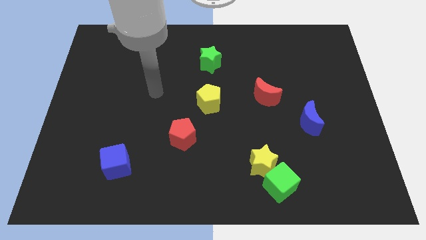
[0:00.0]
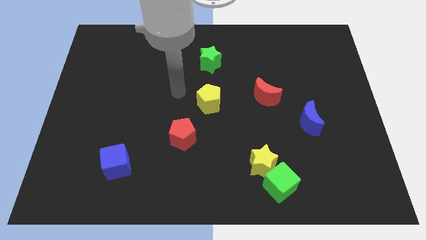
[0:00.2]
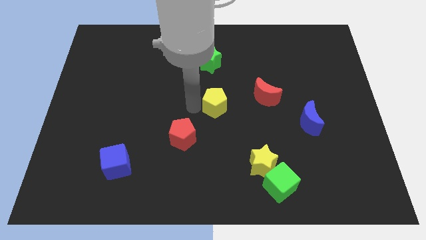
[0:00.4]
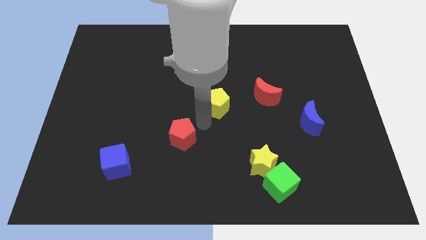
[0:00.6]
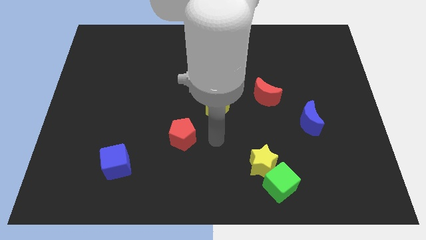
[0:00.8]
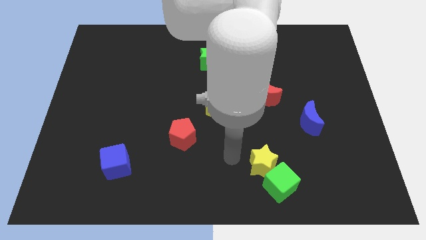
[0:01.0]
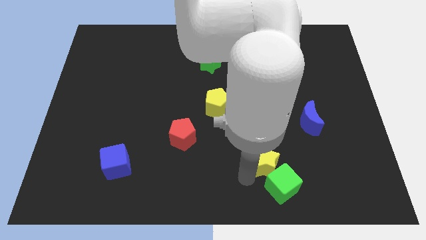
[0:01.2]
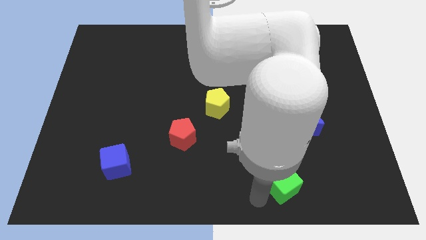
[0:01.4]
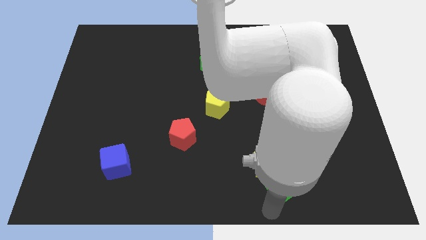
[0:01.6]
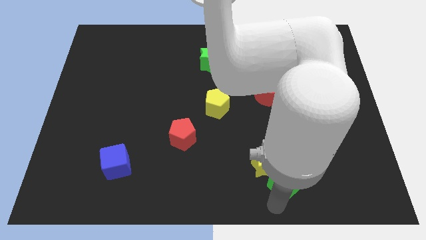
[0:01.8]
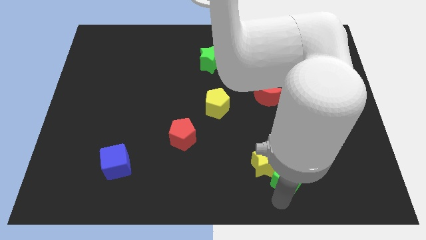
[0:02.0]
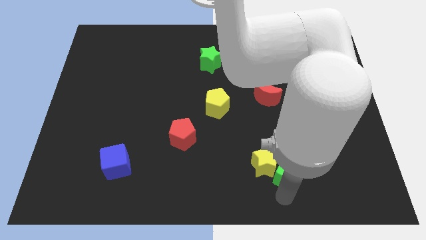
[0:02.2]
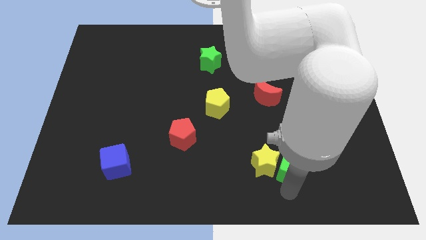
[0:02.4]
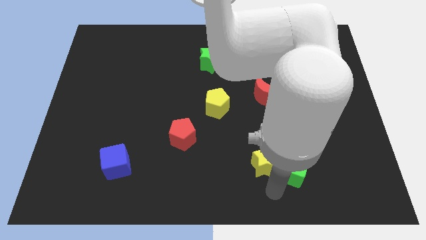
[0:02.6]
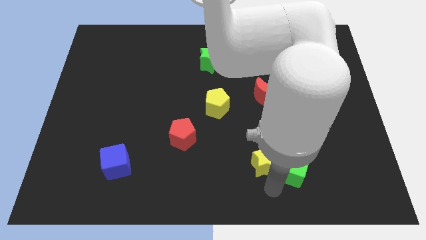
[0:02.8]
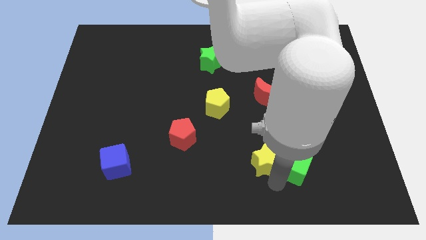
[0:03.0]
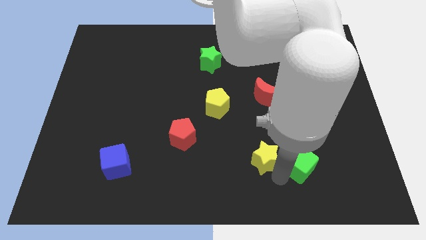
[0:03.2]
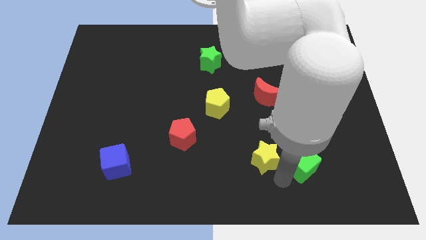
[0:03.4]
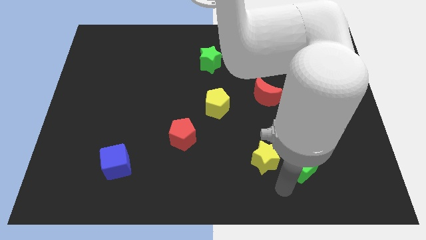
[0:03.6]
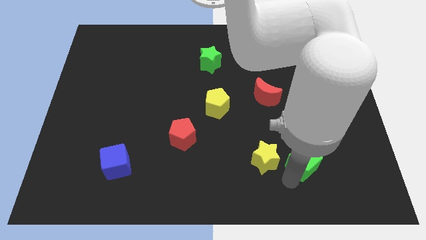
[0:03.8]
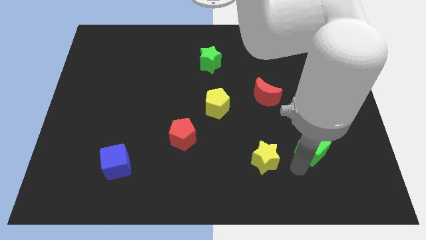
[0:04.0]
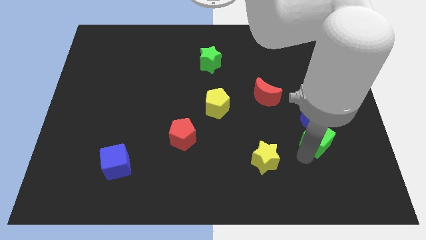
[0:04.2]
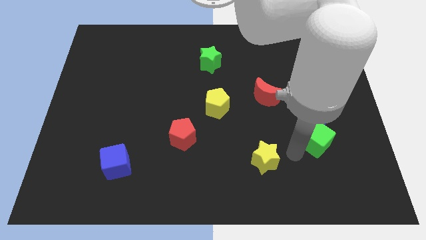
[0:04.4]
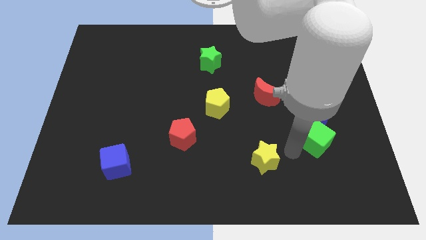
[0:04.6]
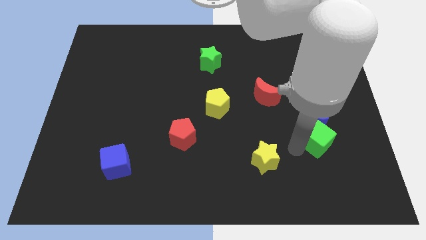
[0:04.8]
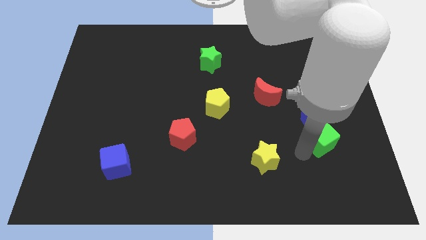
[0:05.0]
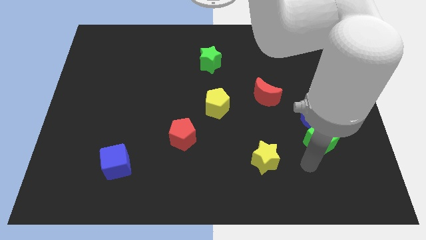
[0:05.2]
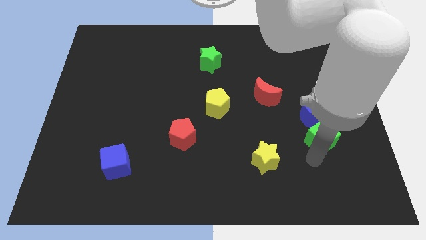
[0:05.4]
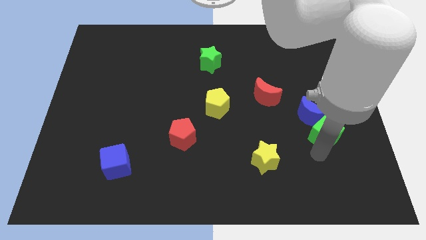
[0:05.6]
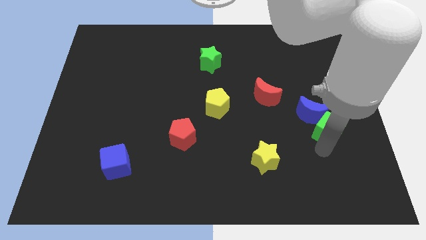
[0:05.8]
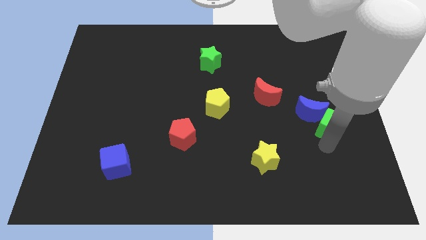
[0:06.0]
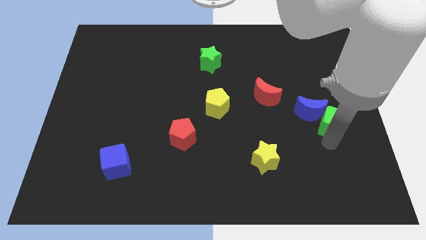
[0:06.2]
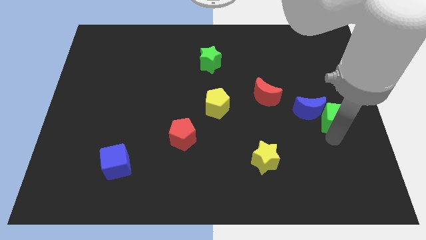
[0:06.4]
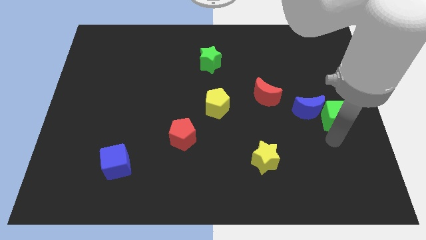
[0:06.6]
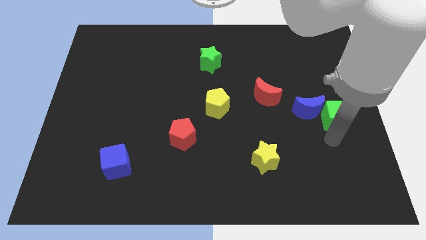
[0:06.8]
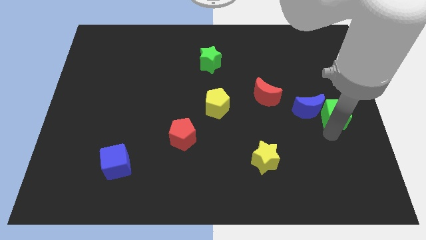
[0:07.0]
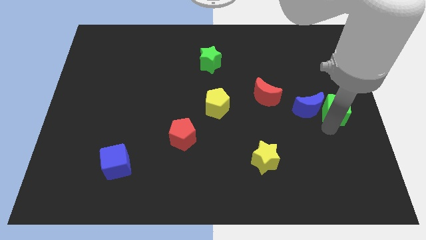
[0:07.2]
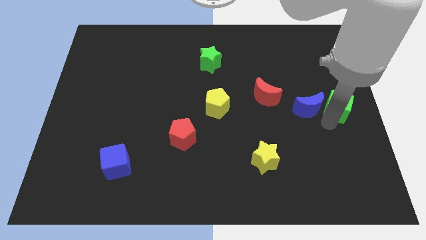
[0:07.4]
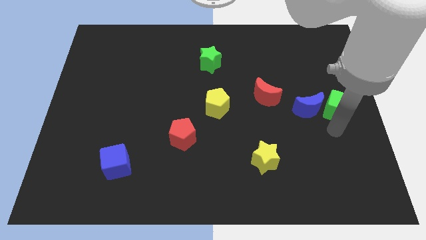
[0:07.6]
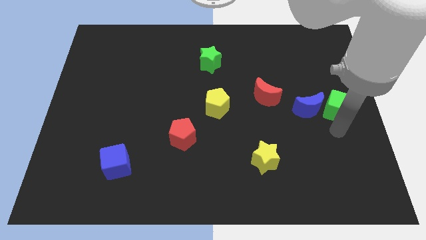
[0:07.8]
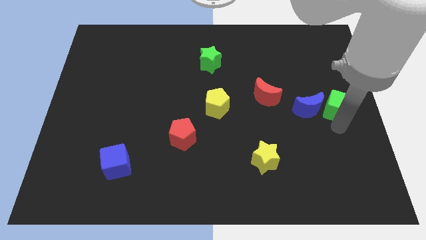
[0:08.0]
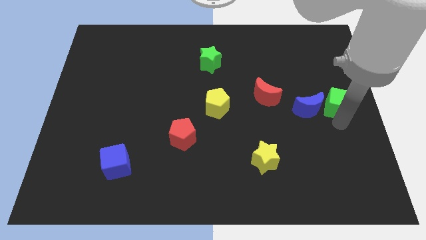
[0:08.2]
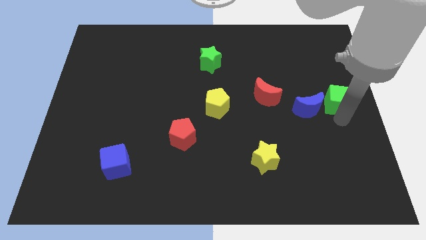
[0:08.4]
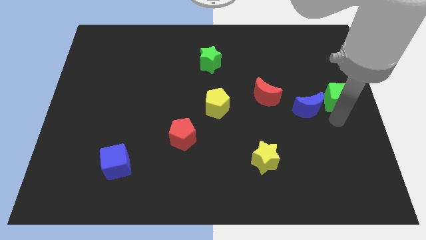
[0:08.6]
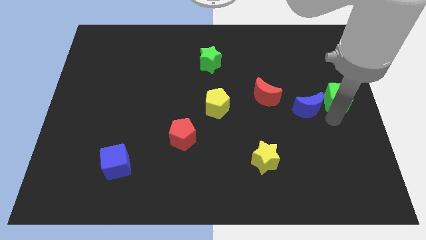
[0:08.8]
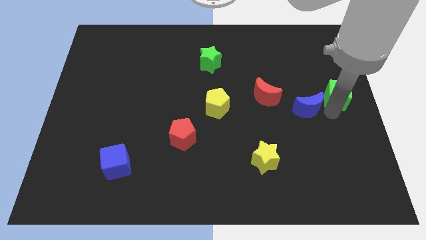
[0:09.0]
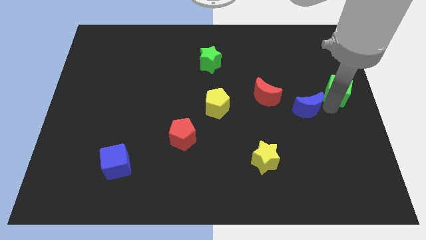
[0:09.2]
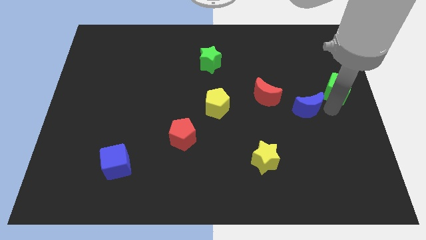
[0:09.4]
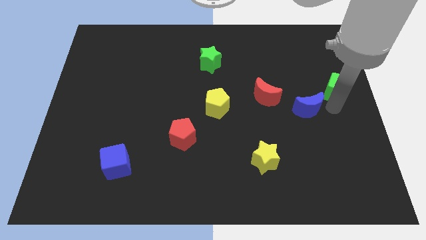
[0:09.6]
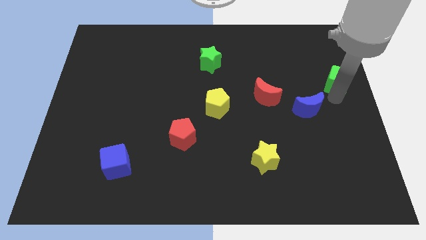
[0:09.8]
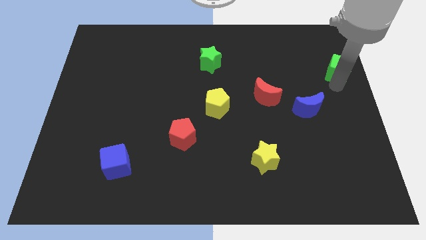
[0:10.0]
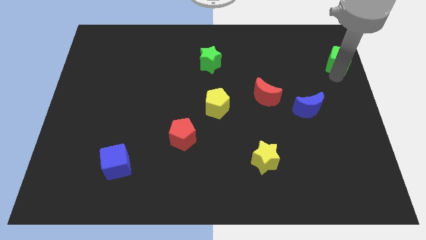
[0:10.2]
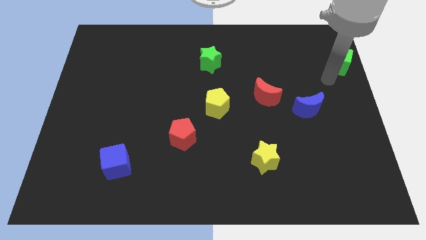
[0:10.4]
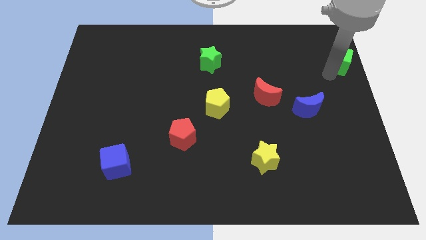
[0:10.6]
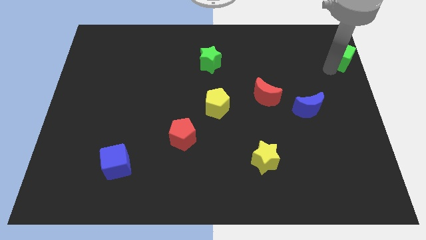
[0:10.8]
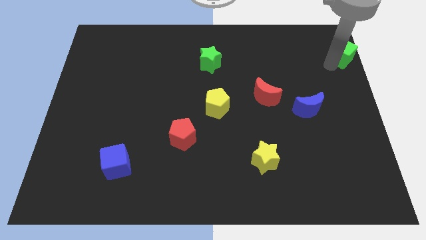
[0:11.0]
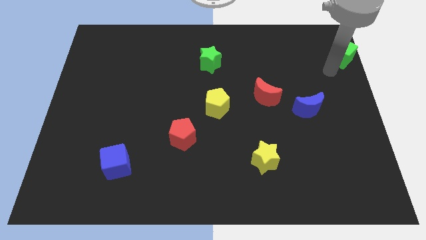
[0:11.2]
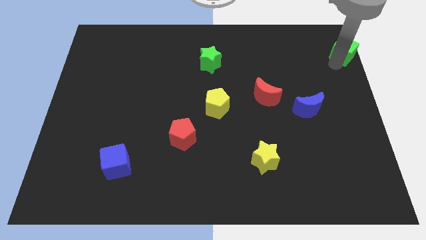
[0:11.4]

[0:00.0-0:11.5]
push the green cube to the top right
